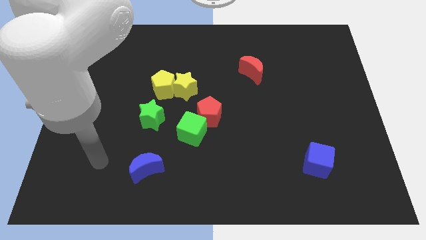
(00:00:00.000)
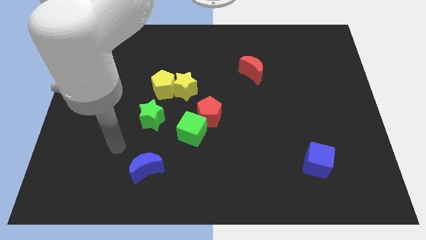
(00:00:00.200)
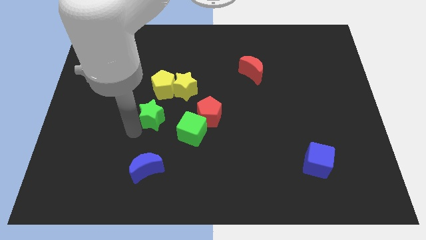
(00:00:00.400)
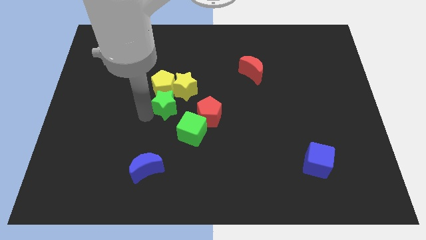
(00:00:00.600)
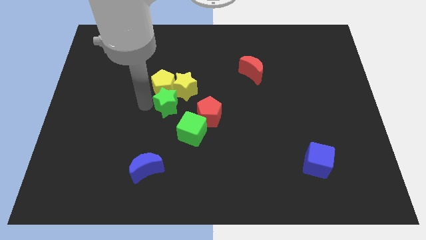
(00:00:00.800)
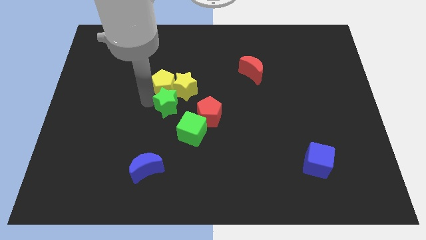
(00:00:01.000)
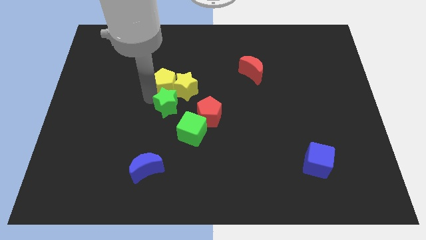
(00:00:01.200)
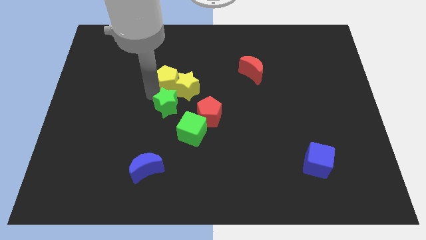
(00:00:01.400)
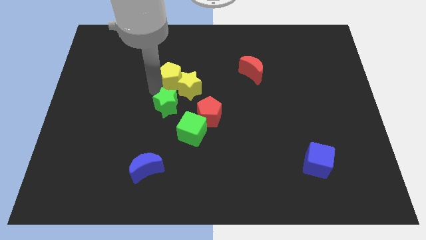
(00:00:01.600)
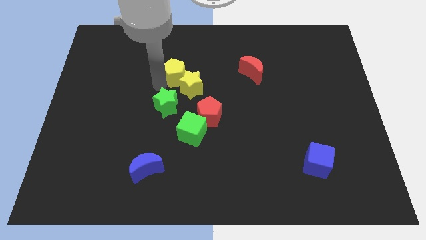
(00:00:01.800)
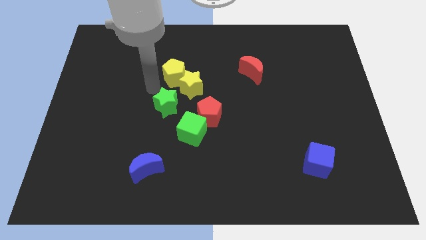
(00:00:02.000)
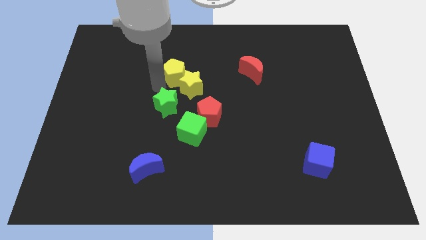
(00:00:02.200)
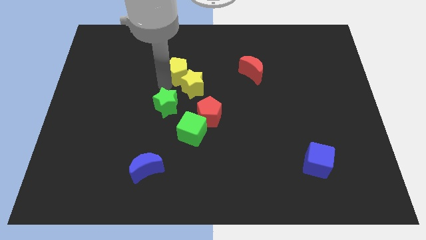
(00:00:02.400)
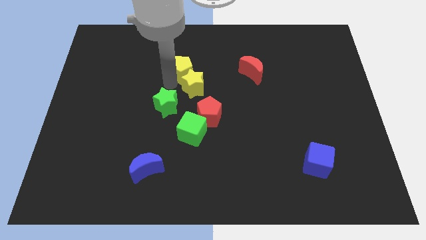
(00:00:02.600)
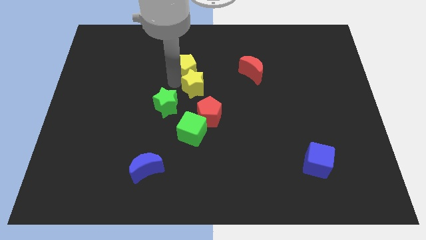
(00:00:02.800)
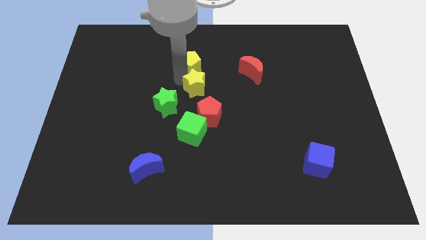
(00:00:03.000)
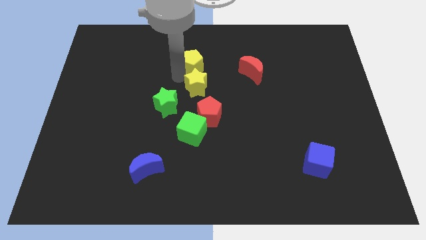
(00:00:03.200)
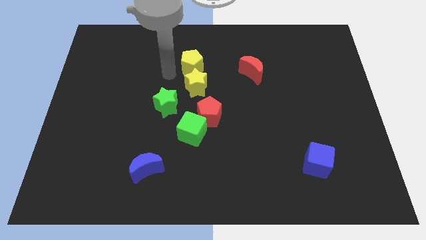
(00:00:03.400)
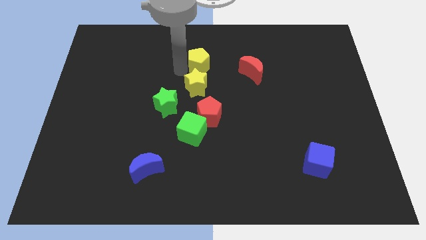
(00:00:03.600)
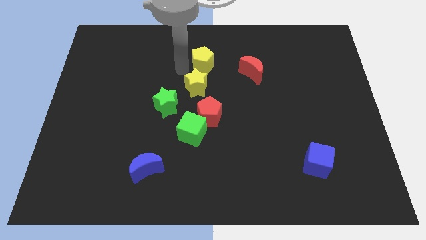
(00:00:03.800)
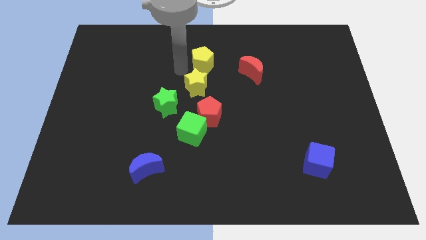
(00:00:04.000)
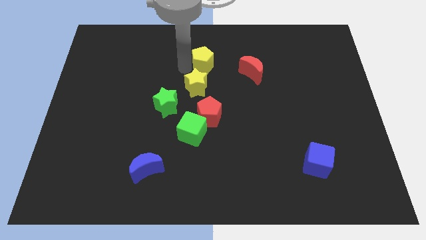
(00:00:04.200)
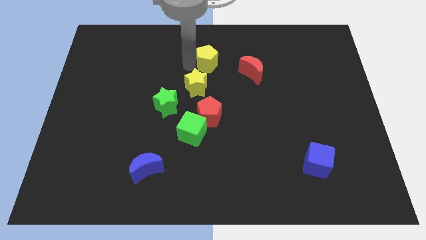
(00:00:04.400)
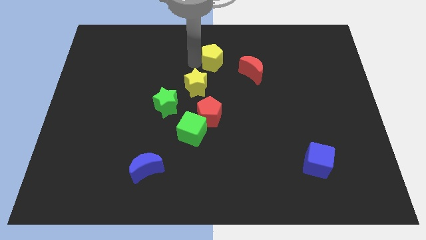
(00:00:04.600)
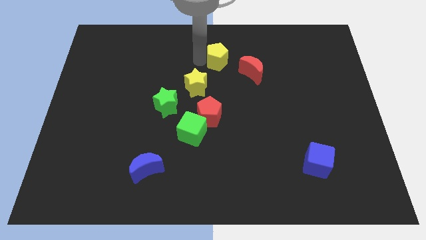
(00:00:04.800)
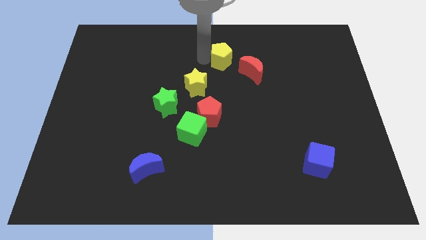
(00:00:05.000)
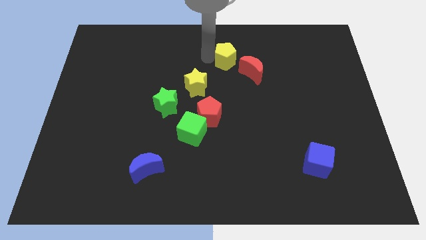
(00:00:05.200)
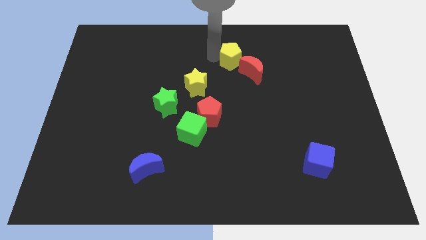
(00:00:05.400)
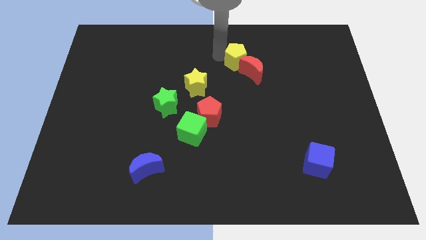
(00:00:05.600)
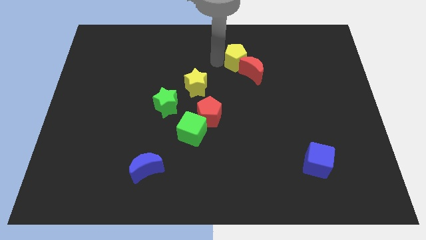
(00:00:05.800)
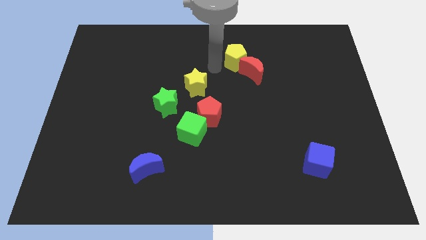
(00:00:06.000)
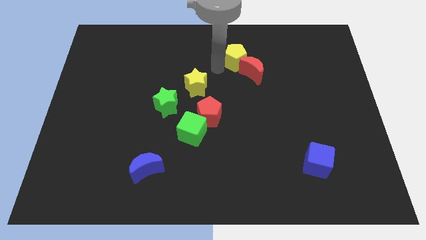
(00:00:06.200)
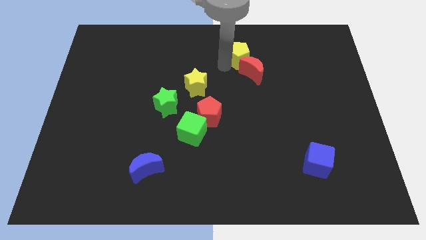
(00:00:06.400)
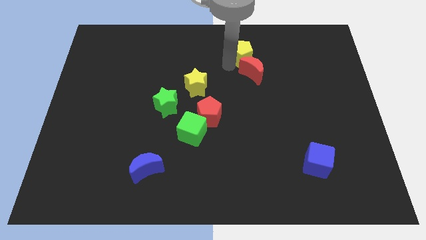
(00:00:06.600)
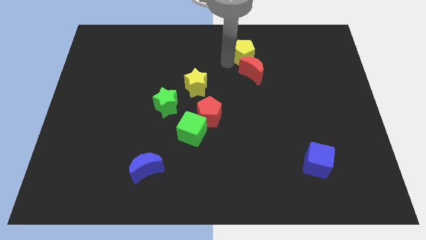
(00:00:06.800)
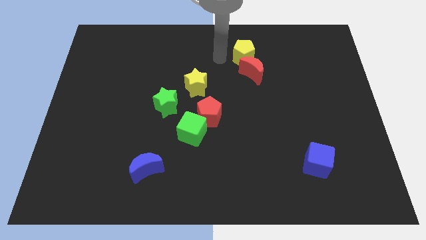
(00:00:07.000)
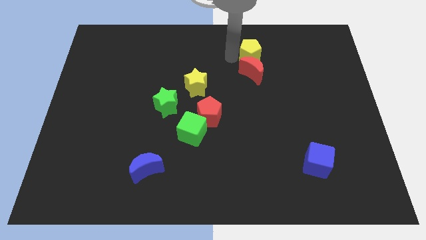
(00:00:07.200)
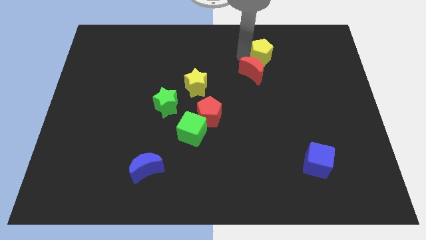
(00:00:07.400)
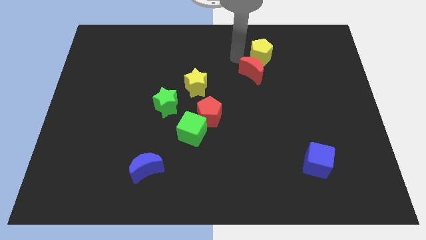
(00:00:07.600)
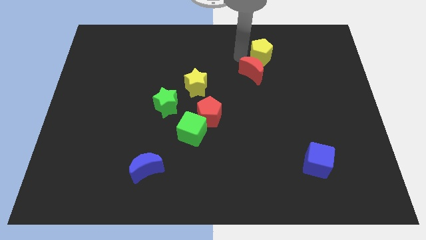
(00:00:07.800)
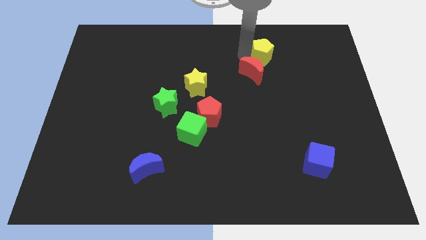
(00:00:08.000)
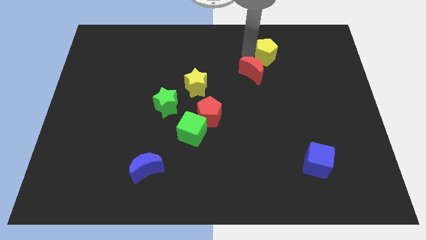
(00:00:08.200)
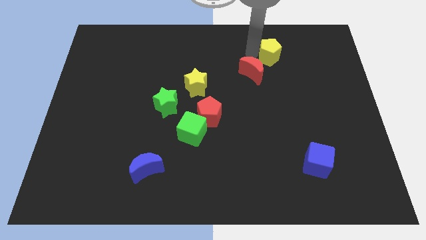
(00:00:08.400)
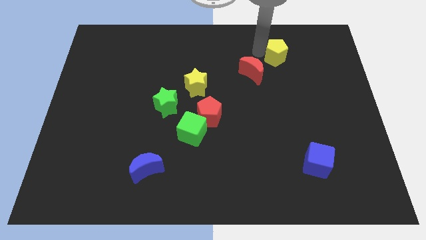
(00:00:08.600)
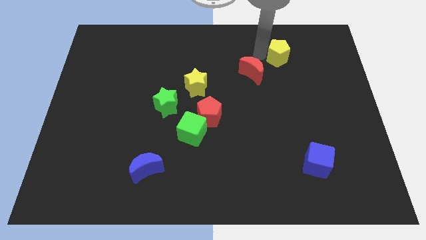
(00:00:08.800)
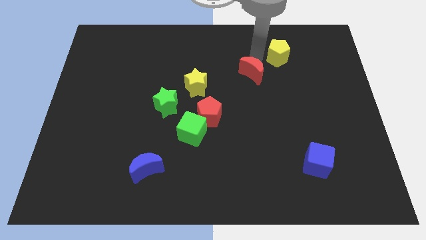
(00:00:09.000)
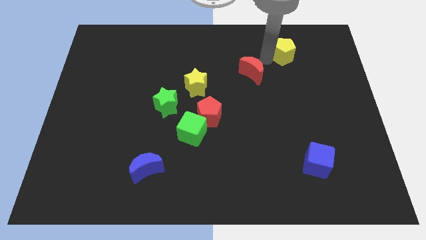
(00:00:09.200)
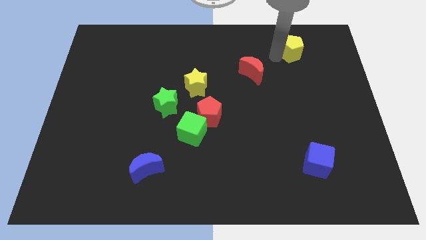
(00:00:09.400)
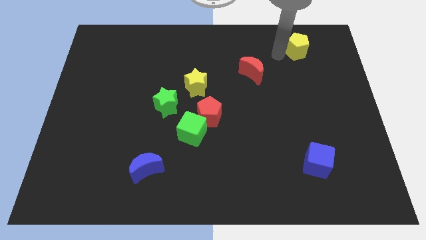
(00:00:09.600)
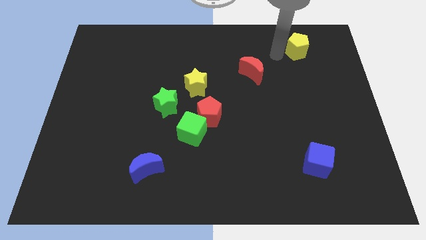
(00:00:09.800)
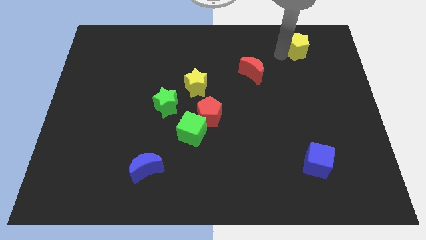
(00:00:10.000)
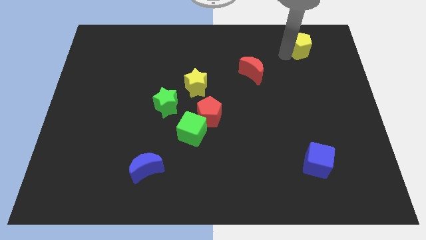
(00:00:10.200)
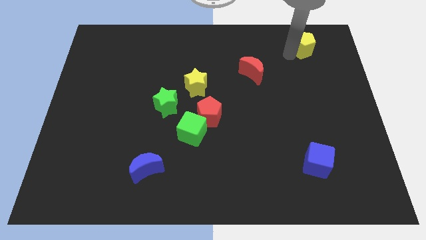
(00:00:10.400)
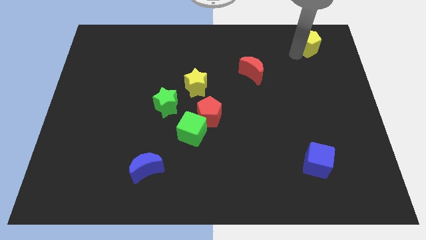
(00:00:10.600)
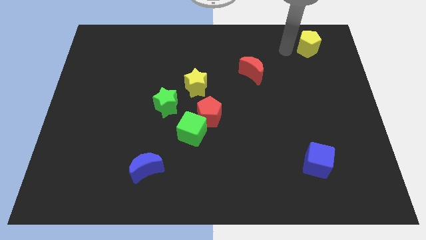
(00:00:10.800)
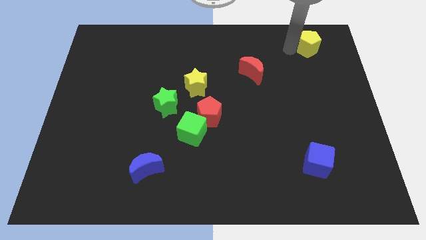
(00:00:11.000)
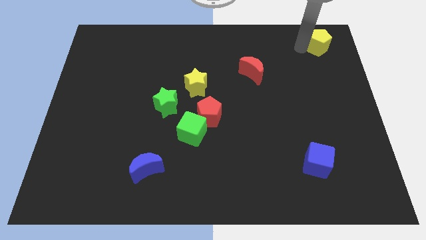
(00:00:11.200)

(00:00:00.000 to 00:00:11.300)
move the yellow pentagon to the upper right corner
